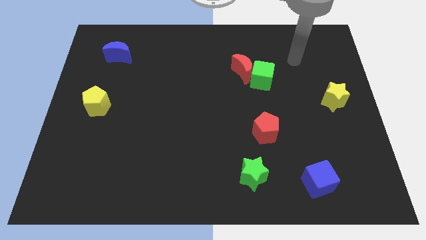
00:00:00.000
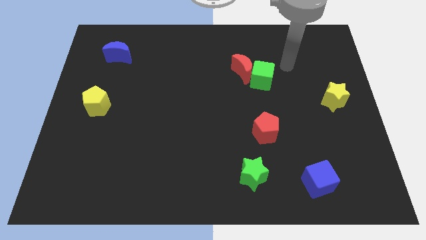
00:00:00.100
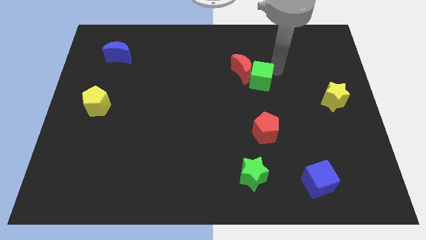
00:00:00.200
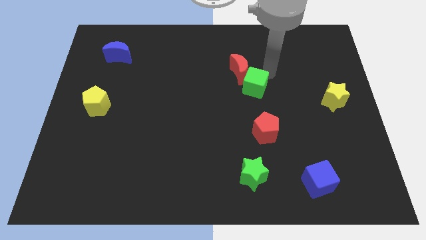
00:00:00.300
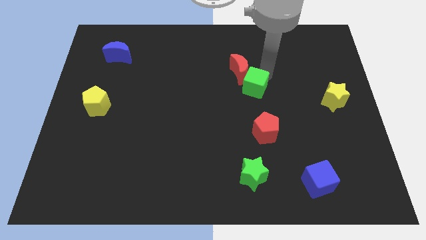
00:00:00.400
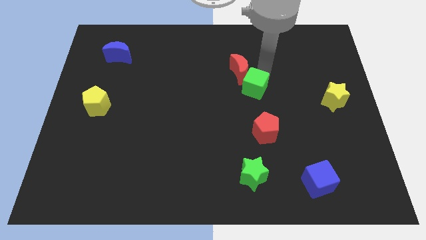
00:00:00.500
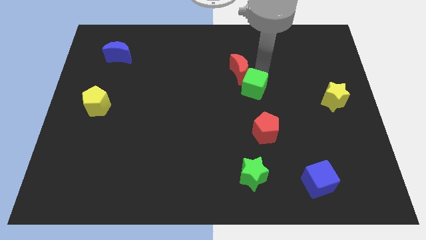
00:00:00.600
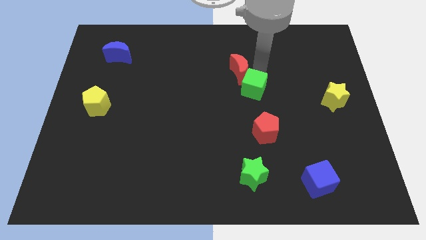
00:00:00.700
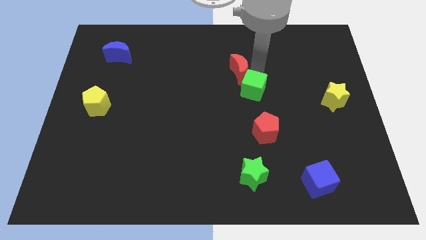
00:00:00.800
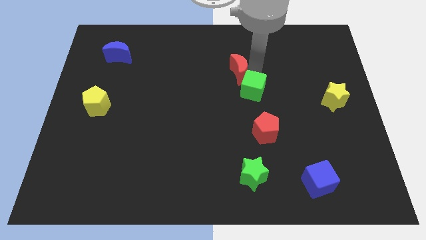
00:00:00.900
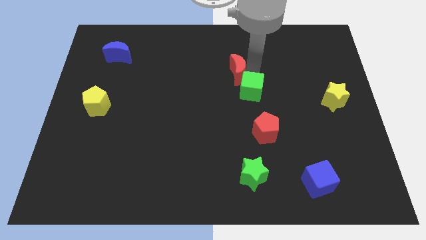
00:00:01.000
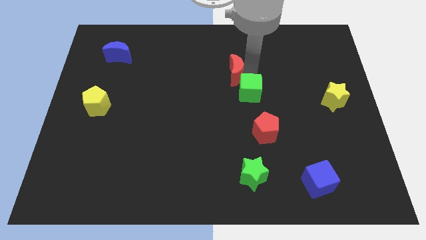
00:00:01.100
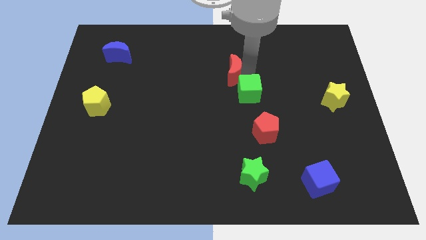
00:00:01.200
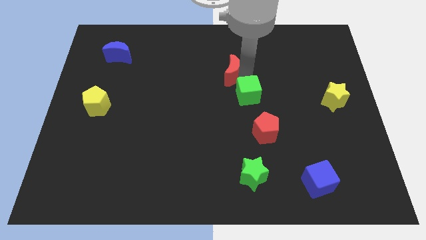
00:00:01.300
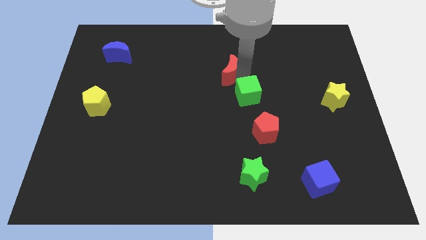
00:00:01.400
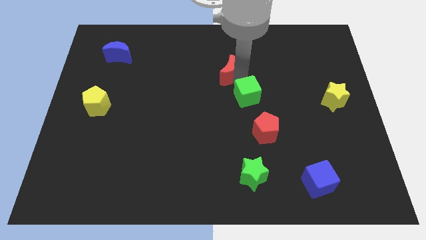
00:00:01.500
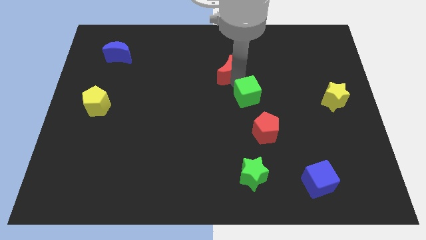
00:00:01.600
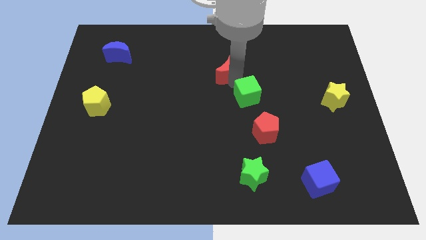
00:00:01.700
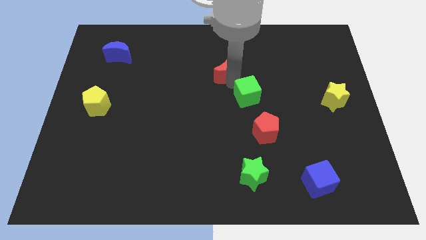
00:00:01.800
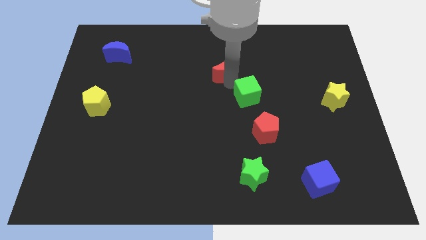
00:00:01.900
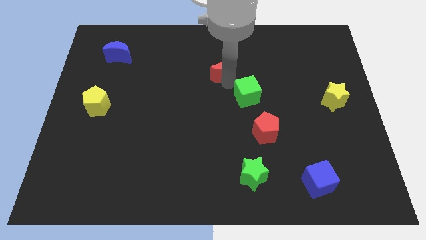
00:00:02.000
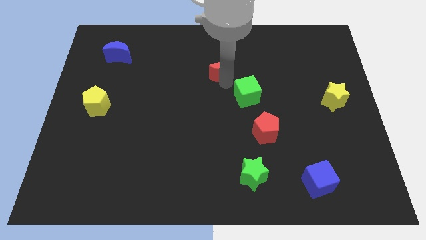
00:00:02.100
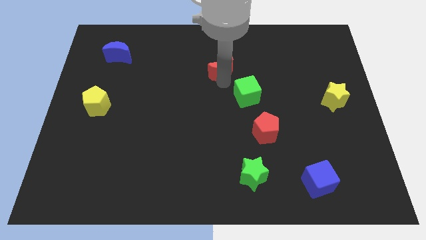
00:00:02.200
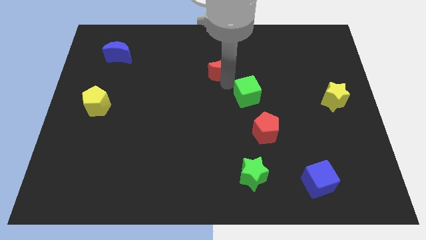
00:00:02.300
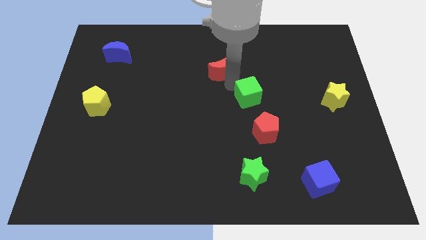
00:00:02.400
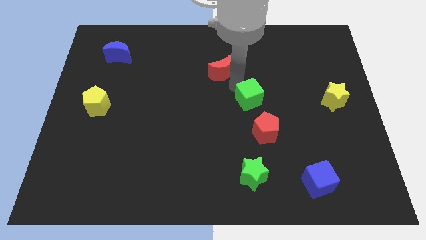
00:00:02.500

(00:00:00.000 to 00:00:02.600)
move the red moon away from the green cube

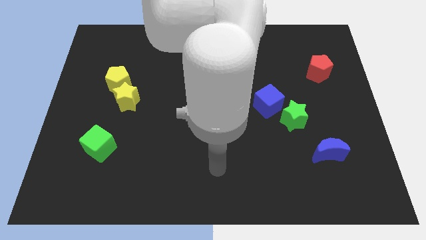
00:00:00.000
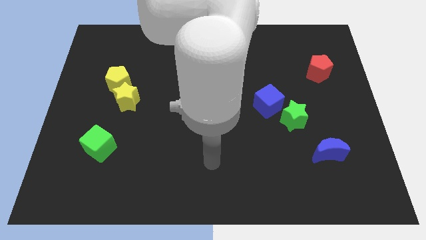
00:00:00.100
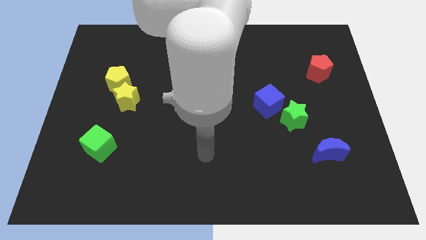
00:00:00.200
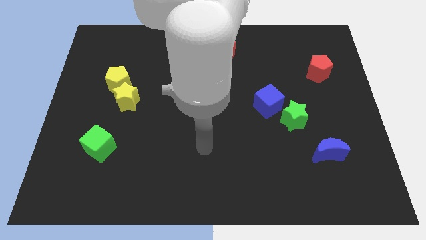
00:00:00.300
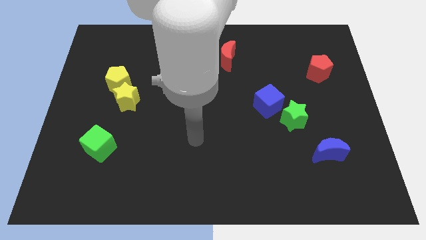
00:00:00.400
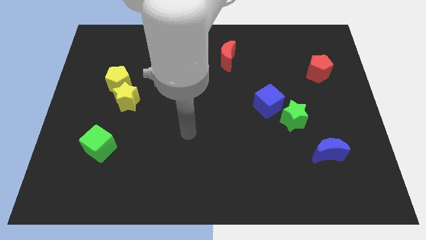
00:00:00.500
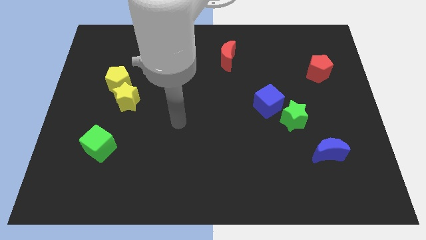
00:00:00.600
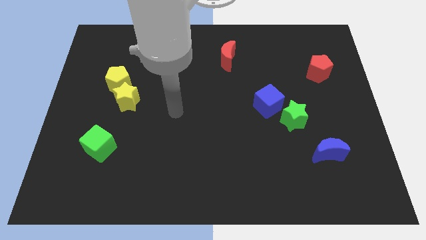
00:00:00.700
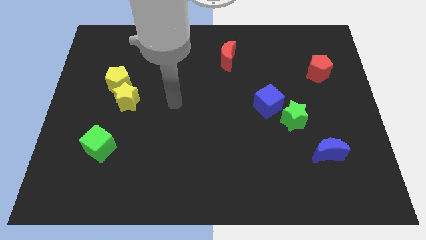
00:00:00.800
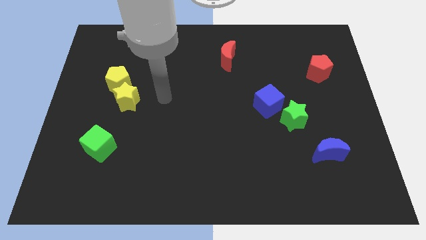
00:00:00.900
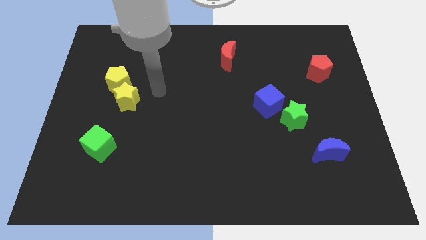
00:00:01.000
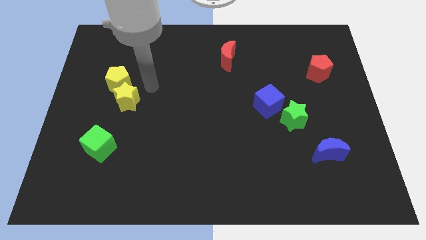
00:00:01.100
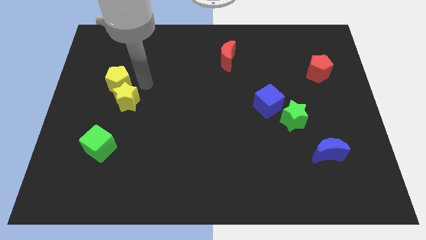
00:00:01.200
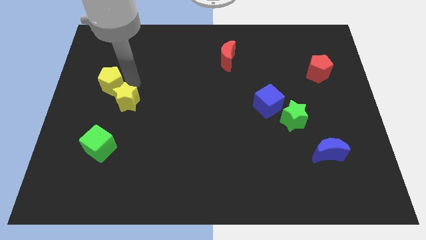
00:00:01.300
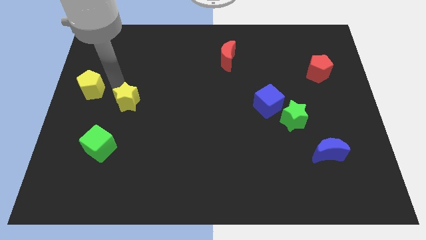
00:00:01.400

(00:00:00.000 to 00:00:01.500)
move the yellow star away from the yellow pentagon

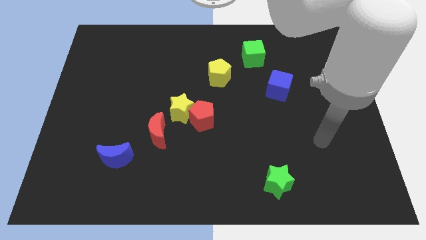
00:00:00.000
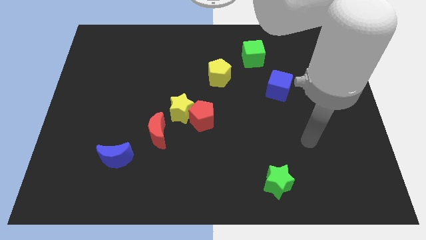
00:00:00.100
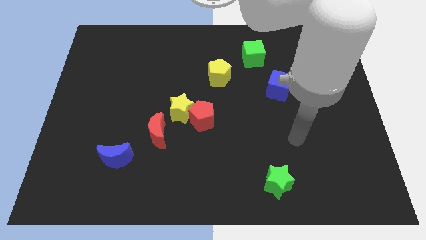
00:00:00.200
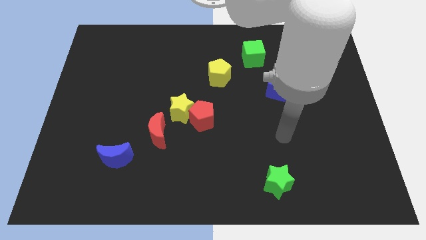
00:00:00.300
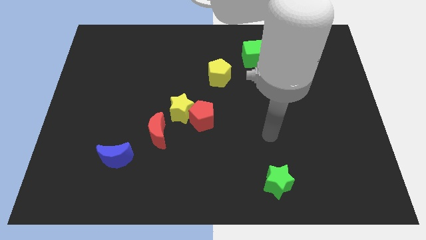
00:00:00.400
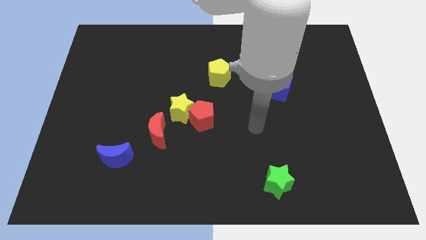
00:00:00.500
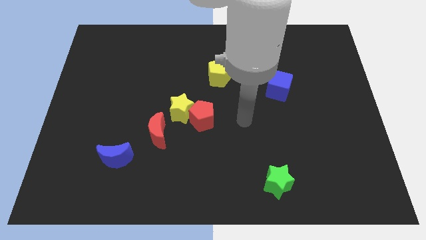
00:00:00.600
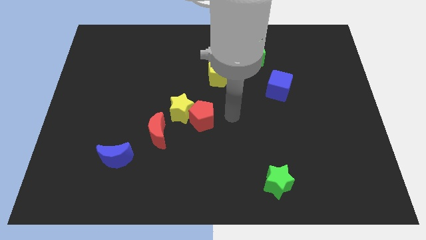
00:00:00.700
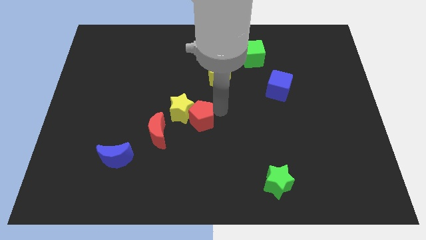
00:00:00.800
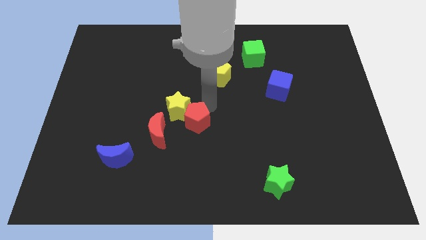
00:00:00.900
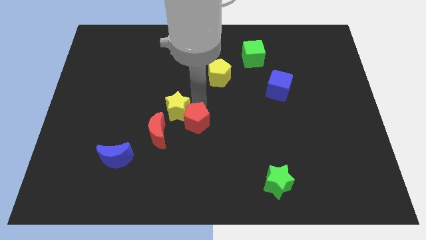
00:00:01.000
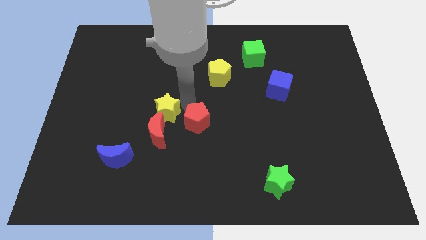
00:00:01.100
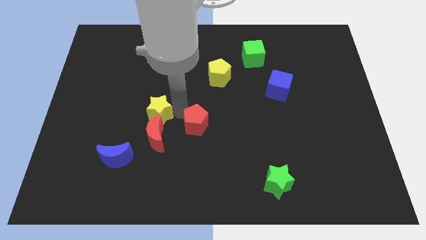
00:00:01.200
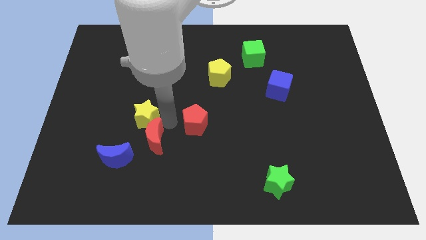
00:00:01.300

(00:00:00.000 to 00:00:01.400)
move the red pentagon away from the yellow star

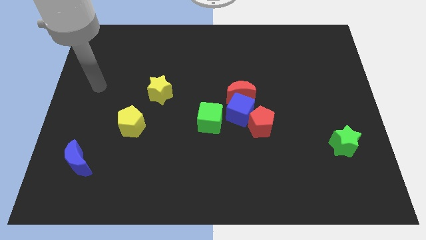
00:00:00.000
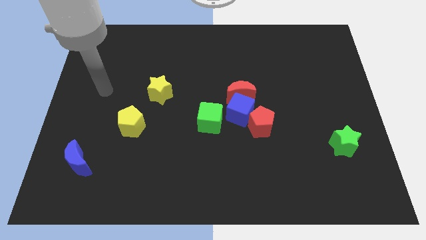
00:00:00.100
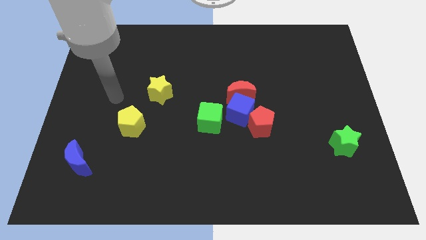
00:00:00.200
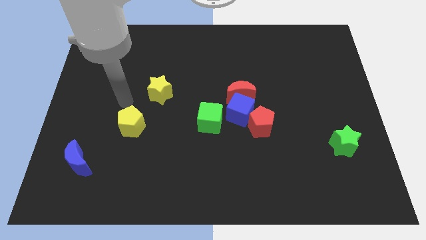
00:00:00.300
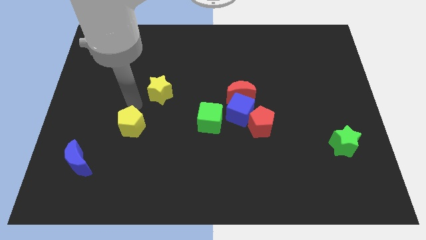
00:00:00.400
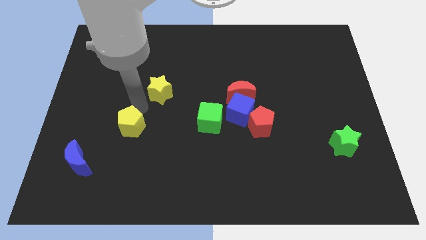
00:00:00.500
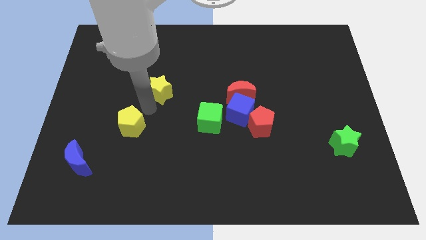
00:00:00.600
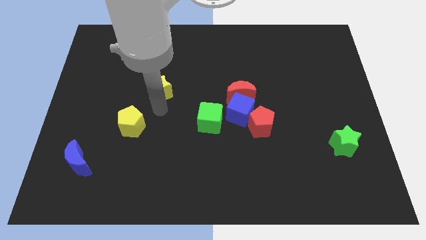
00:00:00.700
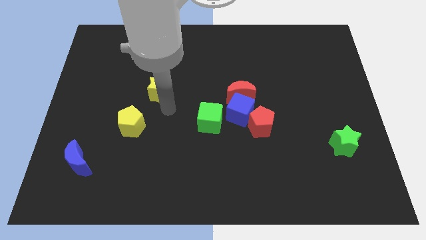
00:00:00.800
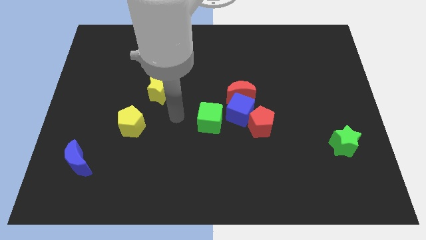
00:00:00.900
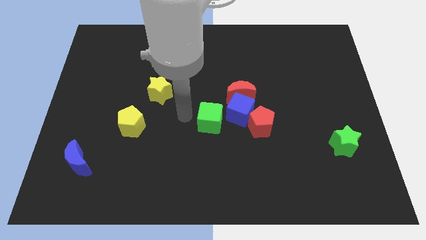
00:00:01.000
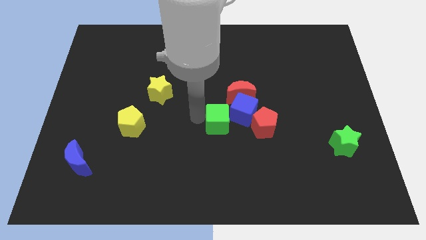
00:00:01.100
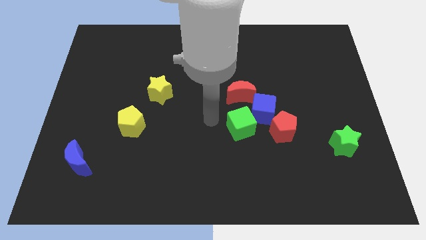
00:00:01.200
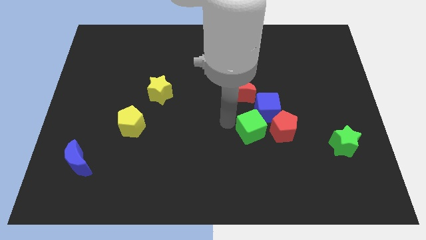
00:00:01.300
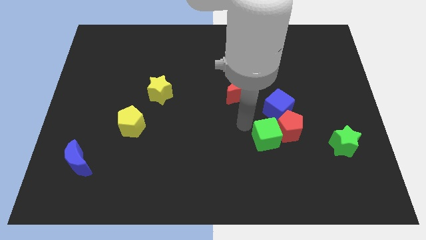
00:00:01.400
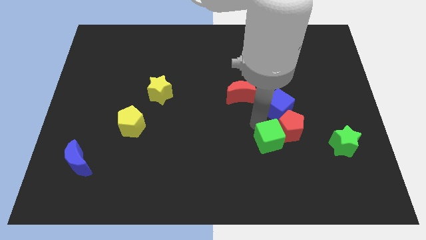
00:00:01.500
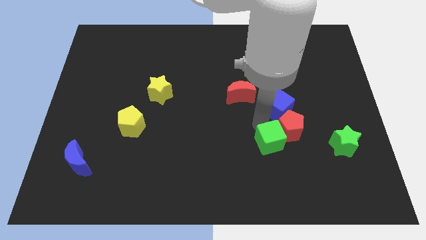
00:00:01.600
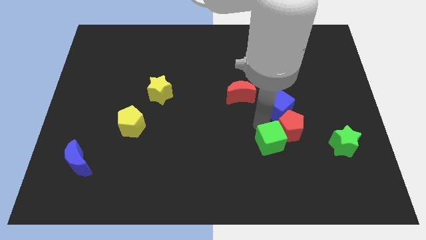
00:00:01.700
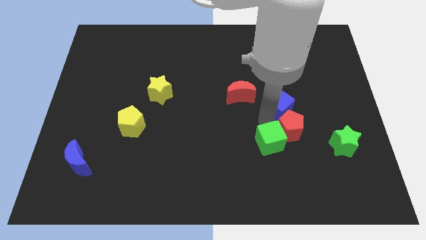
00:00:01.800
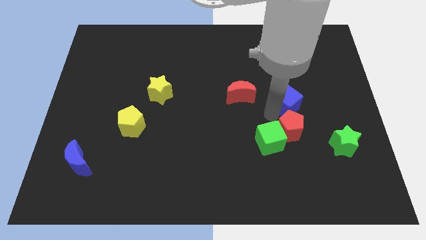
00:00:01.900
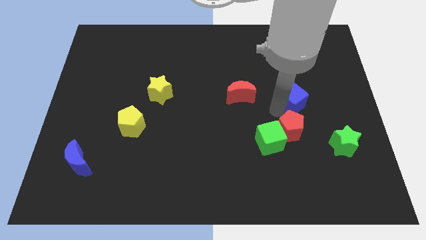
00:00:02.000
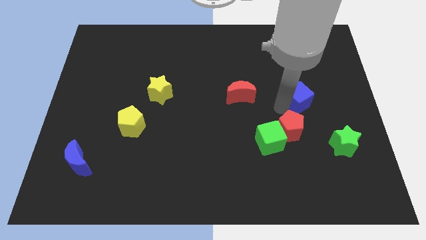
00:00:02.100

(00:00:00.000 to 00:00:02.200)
move the blue cube away from the red moon, red pentagon, and green cube

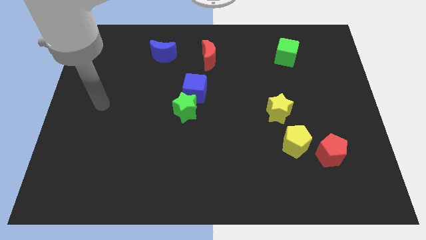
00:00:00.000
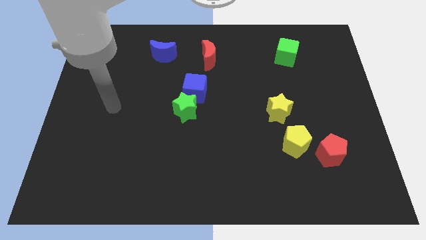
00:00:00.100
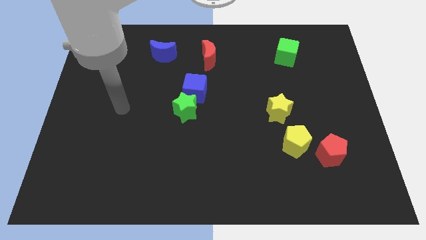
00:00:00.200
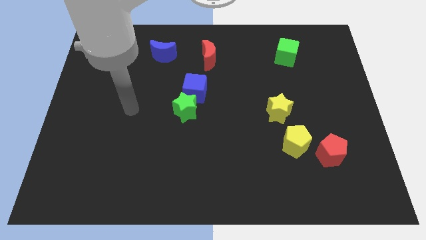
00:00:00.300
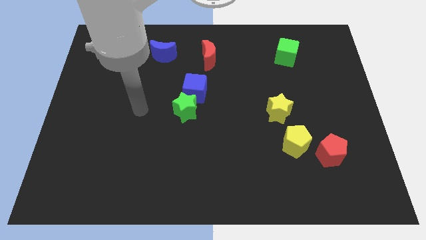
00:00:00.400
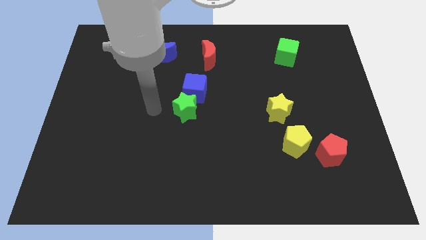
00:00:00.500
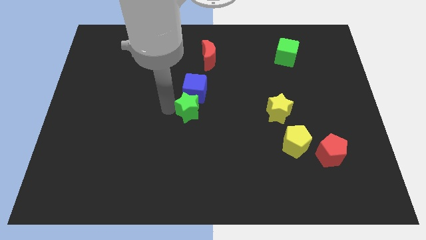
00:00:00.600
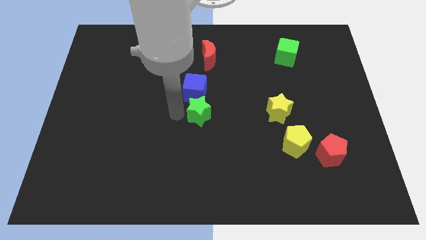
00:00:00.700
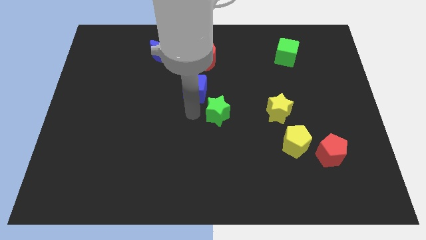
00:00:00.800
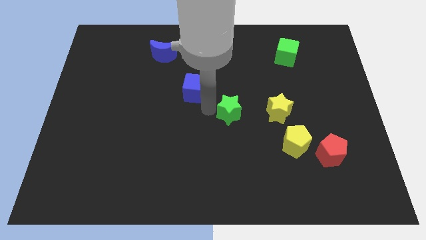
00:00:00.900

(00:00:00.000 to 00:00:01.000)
pull the blue cube apart from the green star

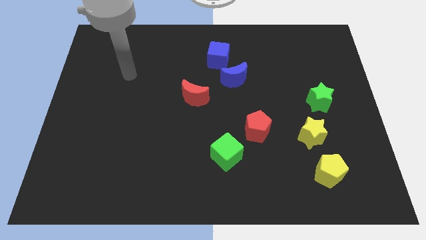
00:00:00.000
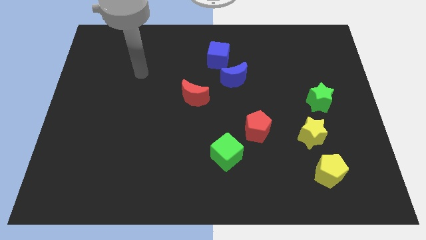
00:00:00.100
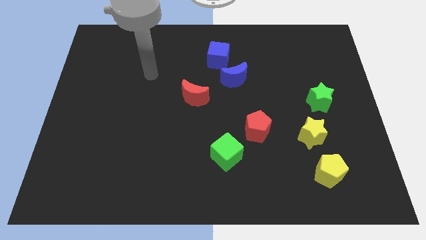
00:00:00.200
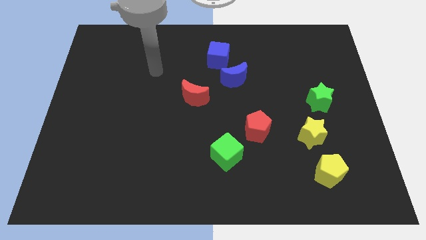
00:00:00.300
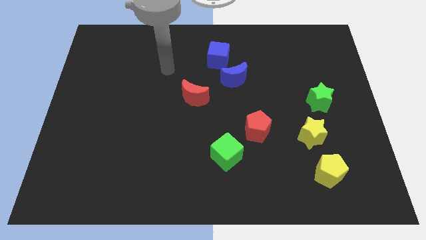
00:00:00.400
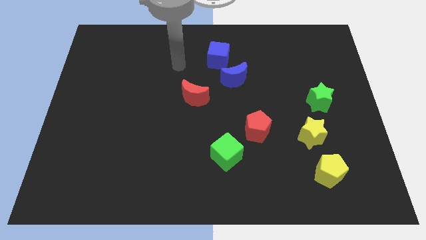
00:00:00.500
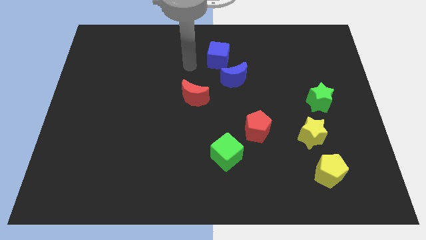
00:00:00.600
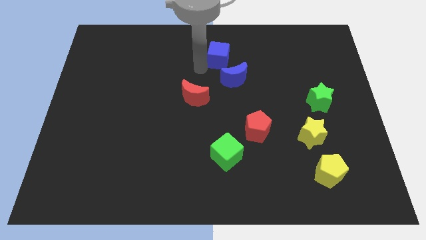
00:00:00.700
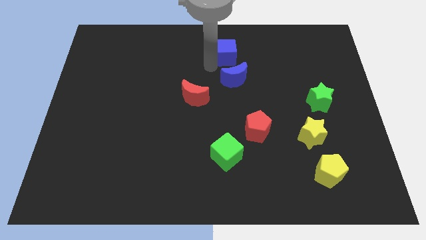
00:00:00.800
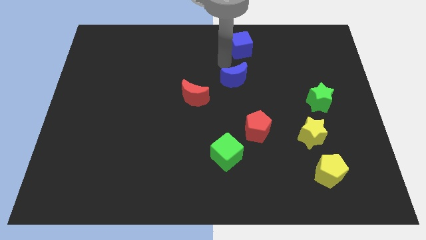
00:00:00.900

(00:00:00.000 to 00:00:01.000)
separate the blue moon from the blue cube
